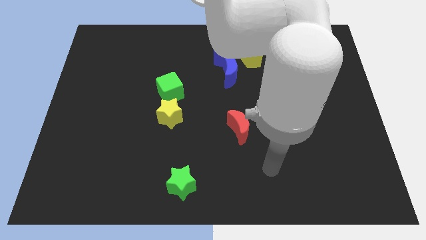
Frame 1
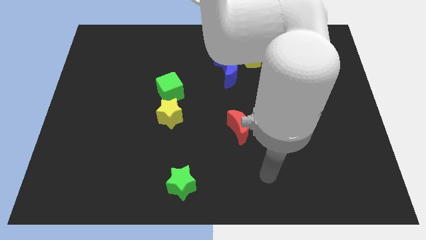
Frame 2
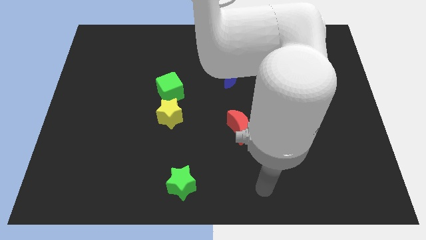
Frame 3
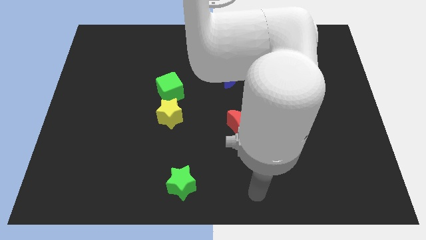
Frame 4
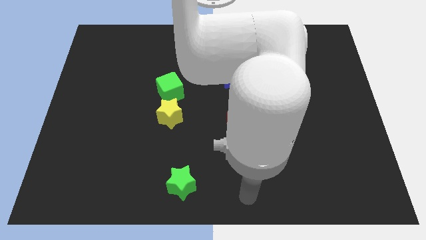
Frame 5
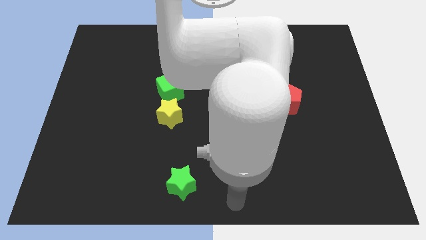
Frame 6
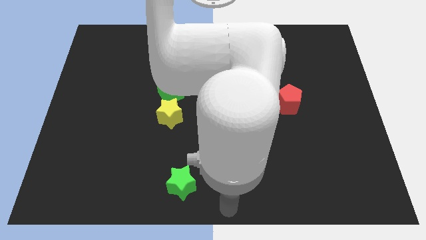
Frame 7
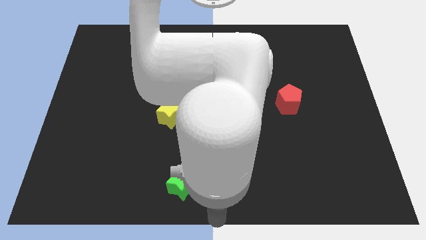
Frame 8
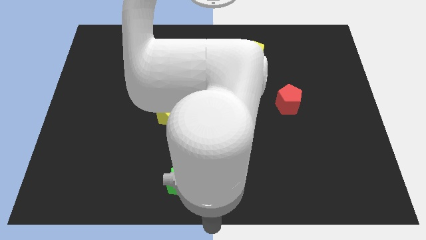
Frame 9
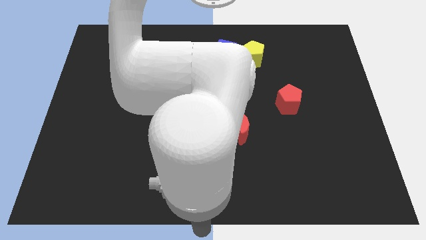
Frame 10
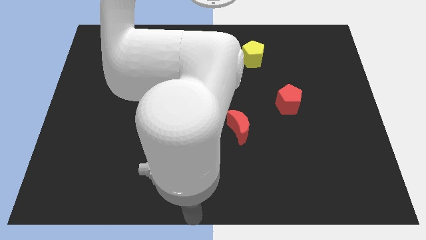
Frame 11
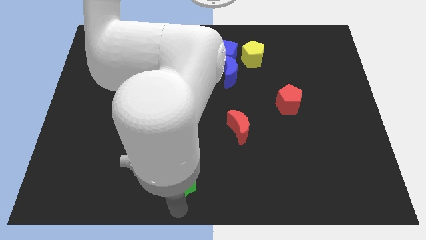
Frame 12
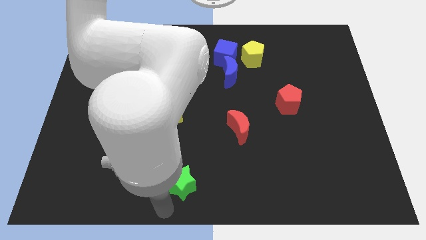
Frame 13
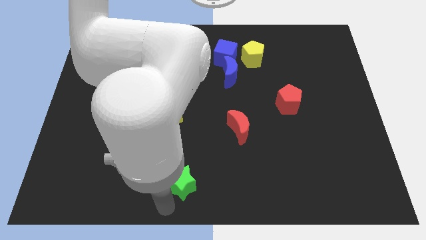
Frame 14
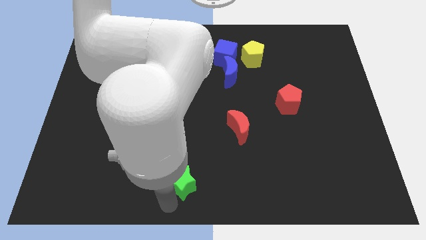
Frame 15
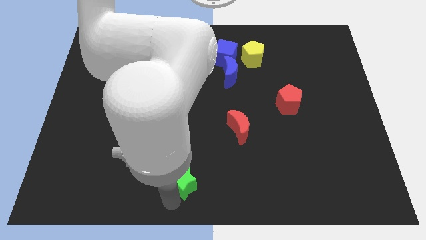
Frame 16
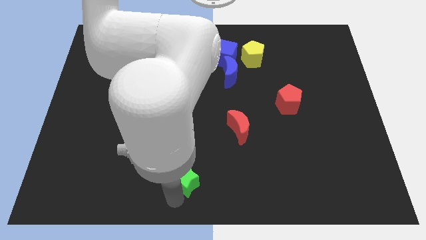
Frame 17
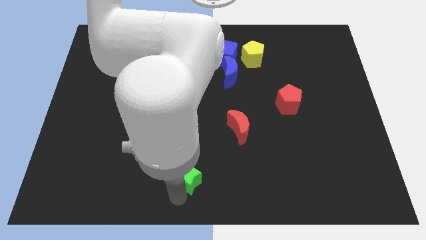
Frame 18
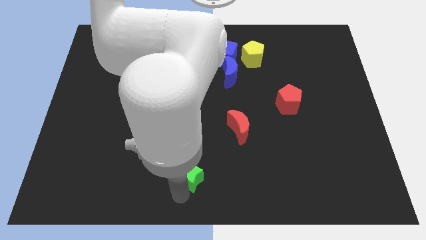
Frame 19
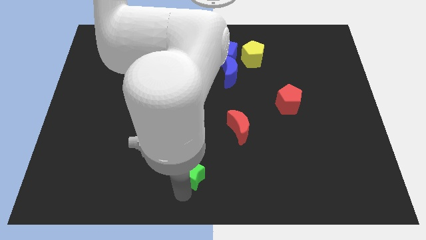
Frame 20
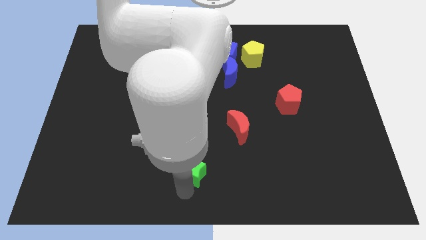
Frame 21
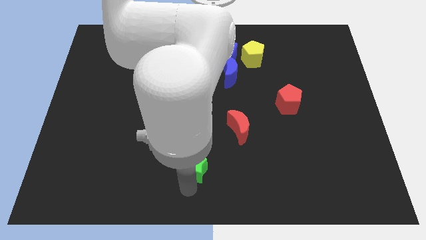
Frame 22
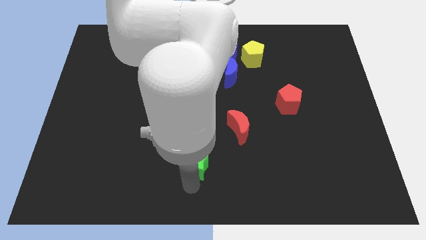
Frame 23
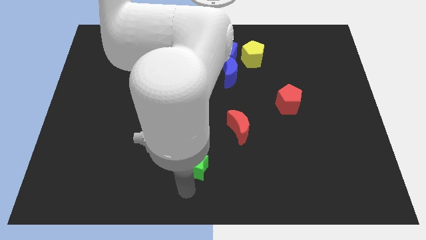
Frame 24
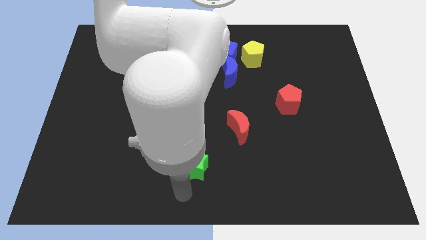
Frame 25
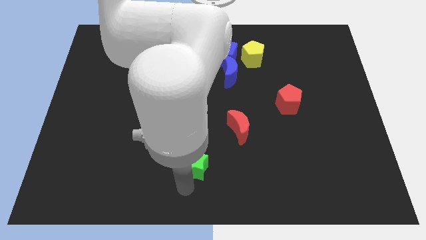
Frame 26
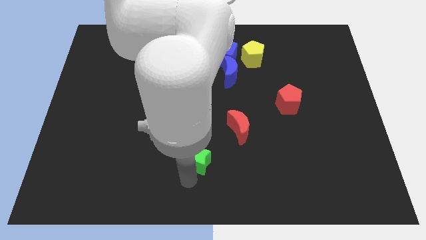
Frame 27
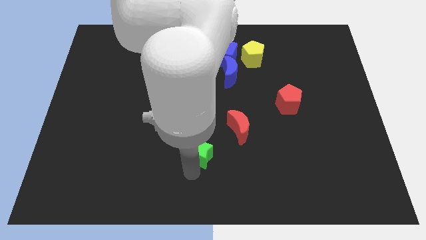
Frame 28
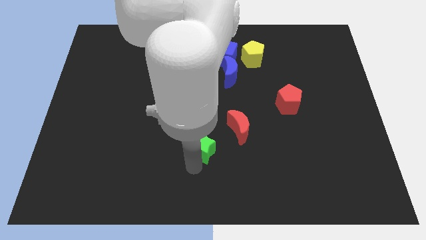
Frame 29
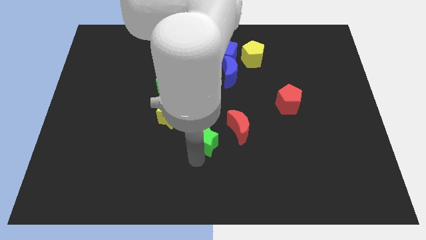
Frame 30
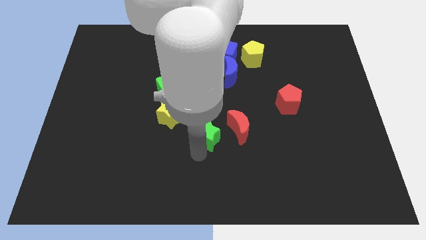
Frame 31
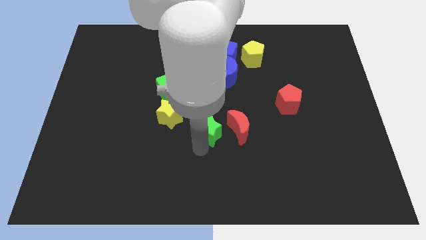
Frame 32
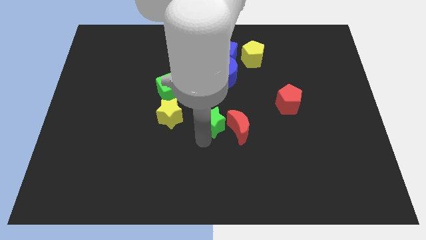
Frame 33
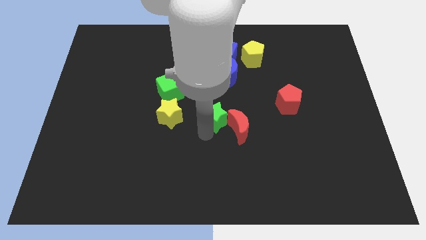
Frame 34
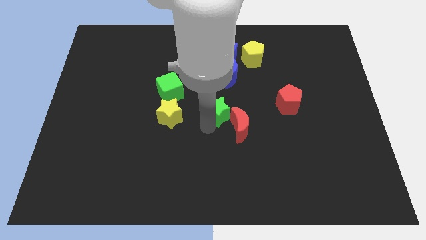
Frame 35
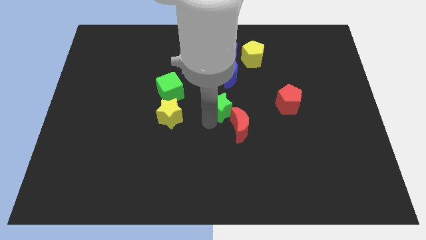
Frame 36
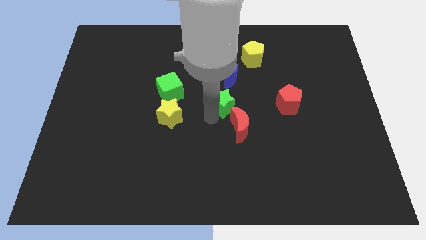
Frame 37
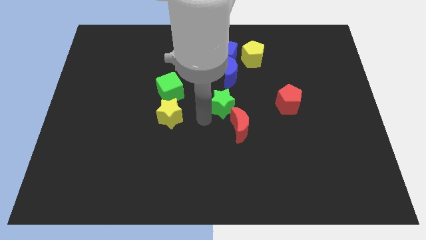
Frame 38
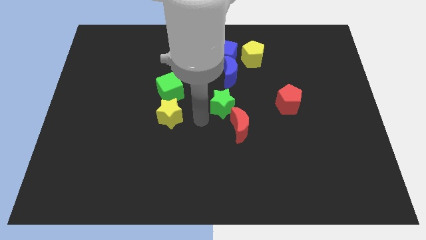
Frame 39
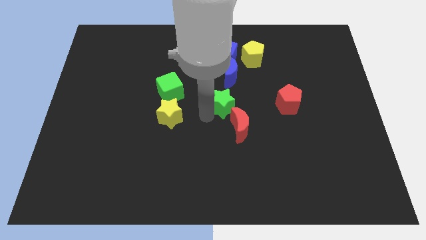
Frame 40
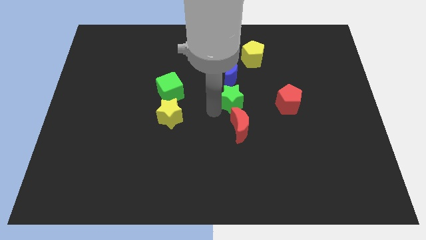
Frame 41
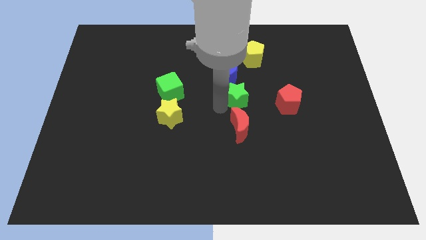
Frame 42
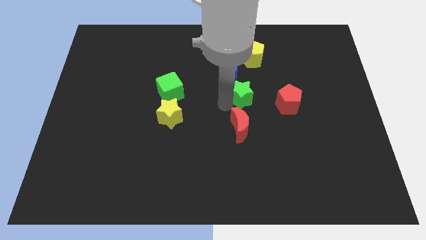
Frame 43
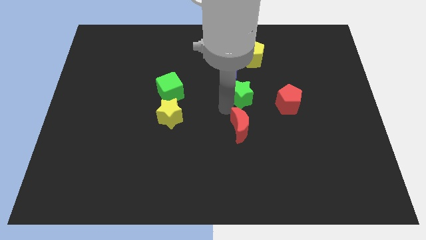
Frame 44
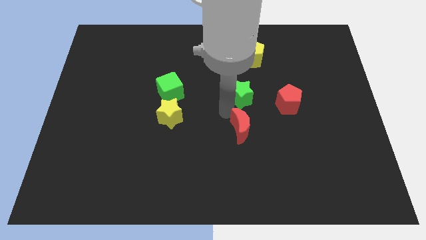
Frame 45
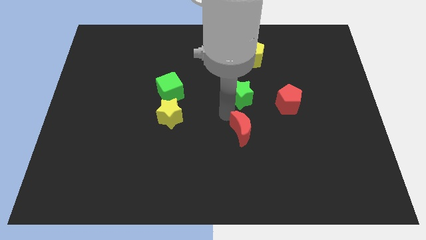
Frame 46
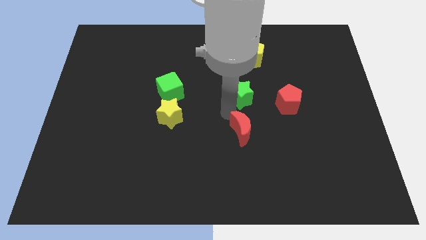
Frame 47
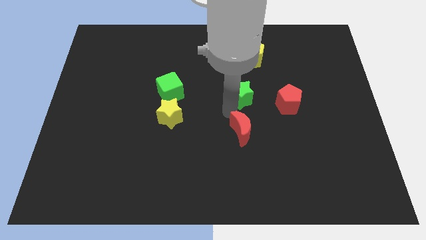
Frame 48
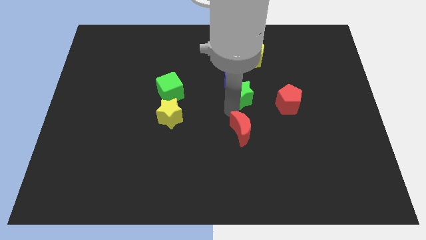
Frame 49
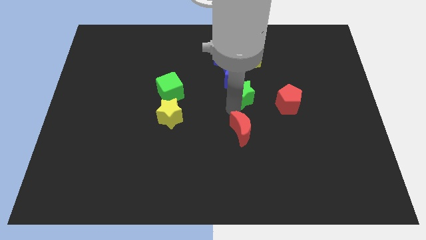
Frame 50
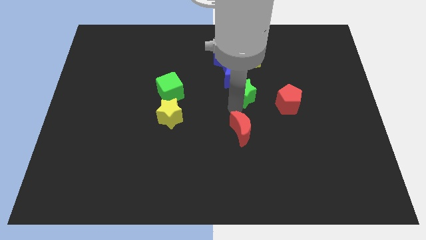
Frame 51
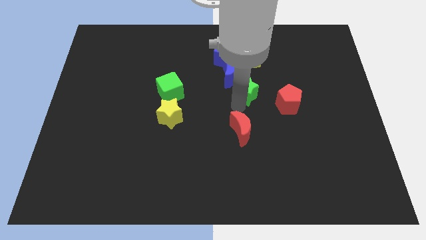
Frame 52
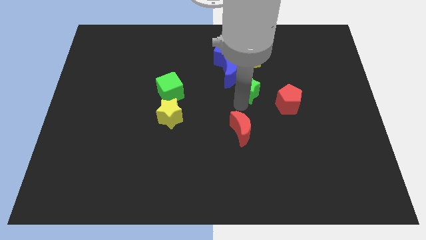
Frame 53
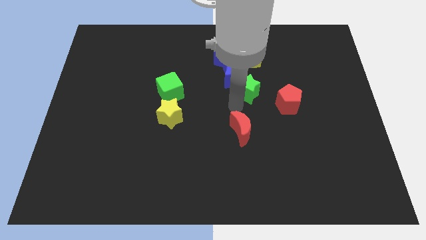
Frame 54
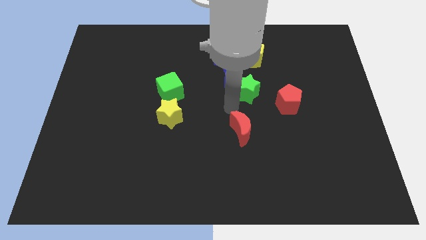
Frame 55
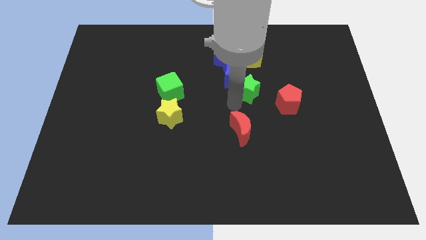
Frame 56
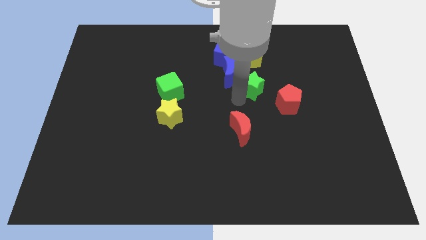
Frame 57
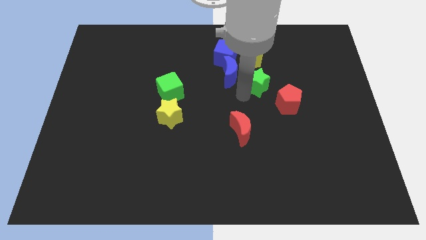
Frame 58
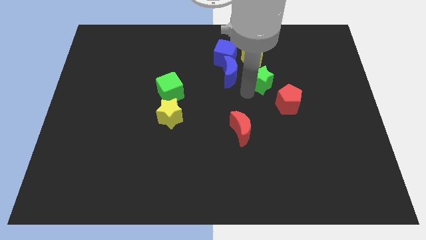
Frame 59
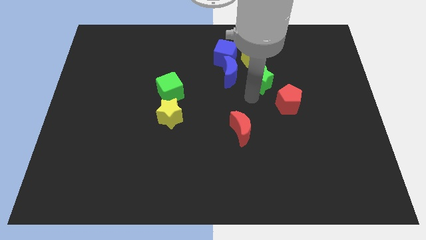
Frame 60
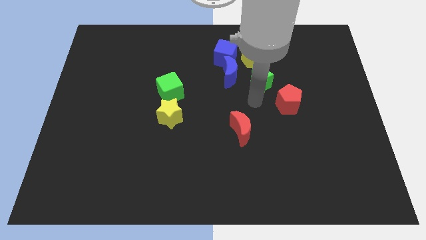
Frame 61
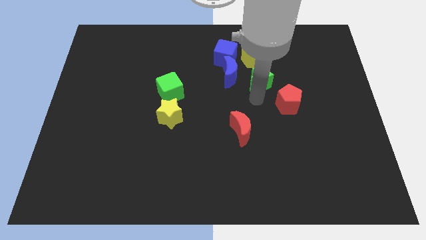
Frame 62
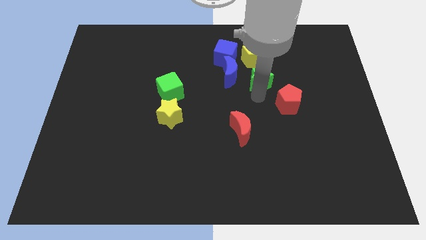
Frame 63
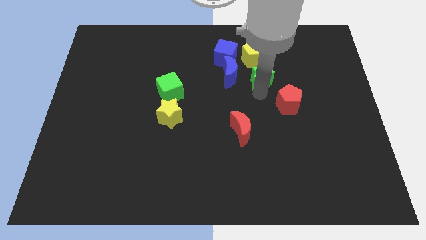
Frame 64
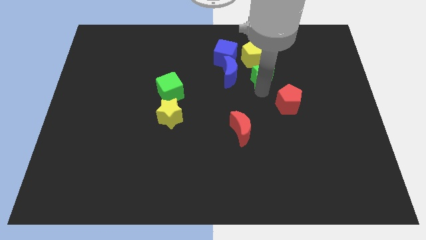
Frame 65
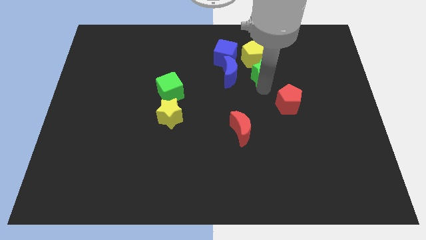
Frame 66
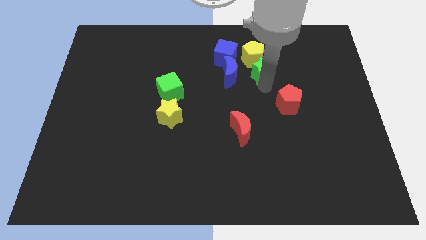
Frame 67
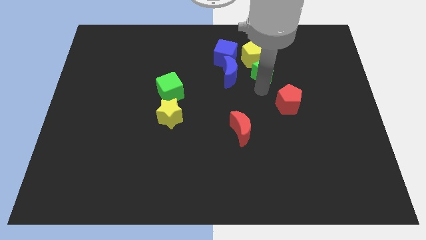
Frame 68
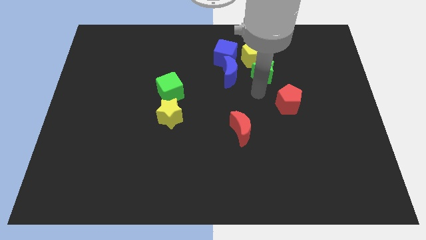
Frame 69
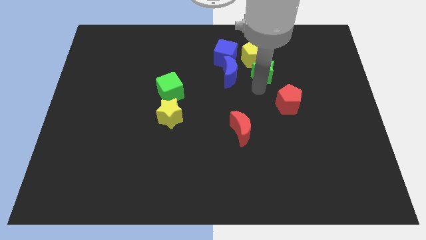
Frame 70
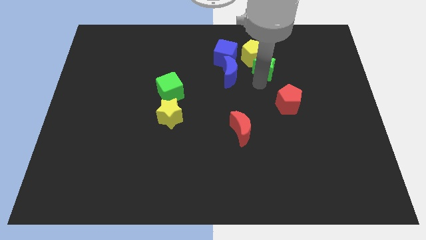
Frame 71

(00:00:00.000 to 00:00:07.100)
slide the green star to the right side of the blue cube

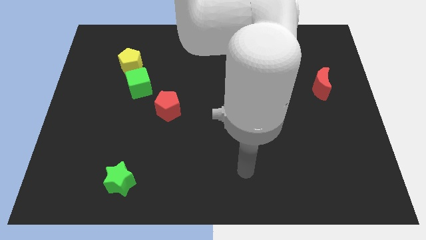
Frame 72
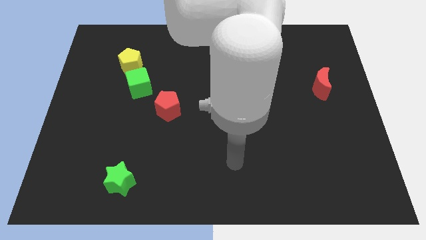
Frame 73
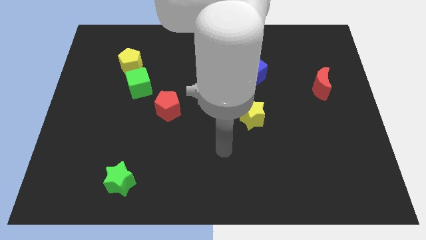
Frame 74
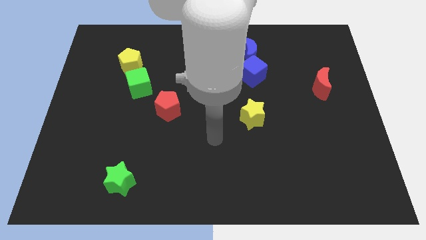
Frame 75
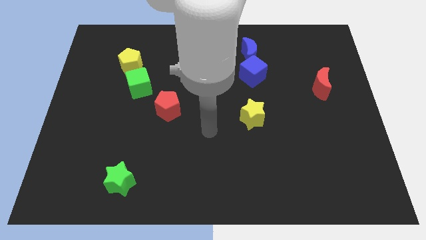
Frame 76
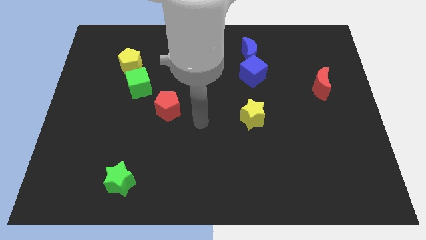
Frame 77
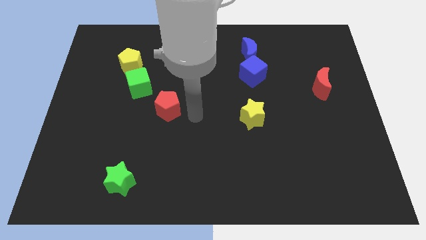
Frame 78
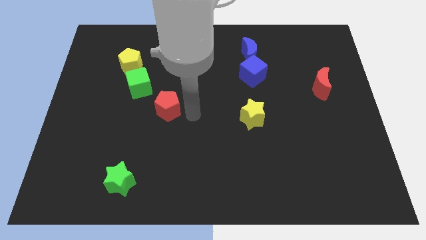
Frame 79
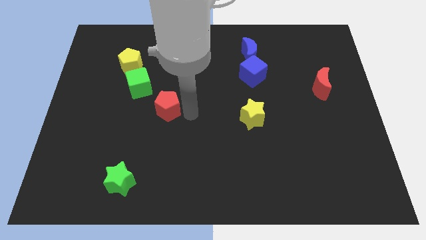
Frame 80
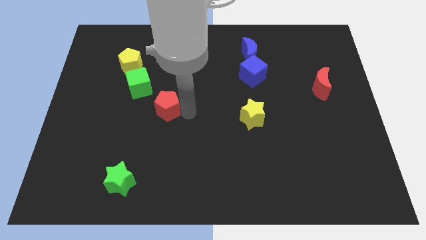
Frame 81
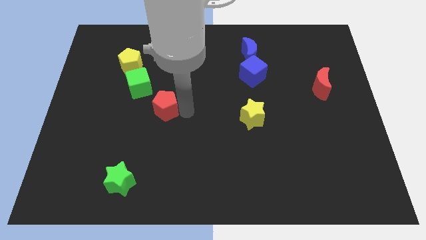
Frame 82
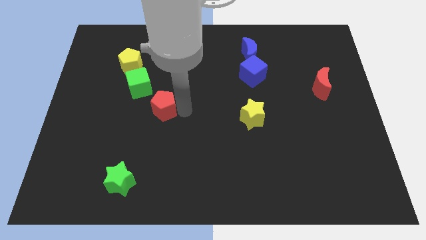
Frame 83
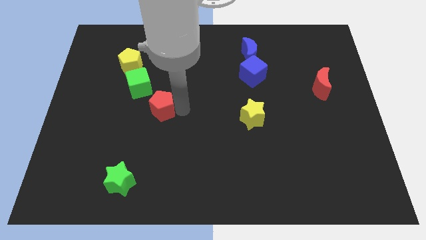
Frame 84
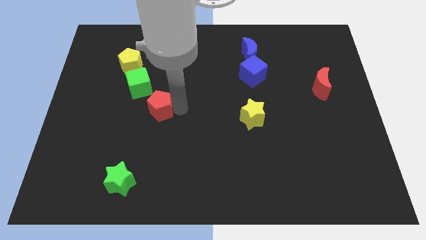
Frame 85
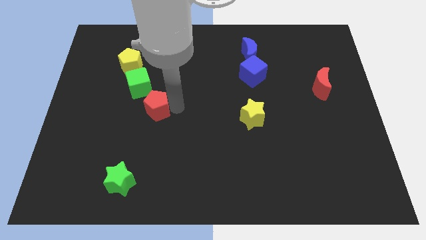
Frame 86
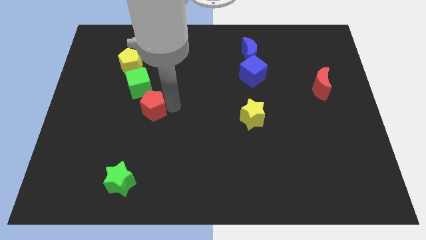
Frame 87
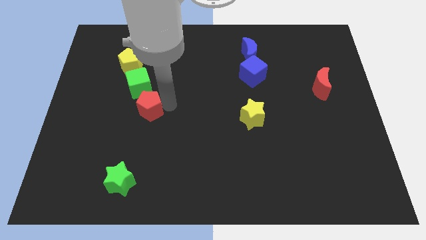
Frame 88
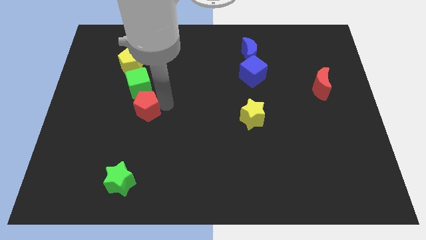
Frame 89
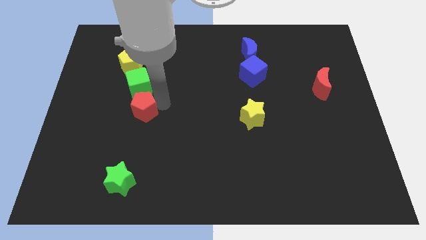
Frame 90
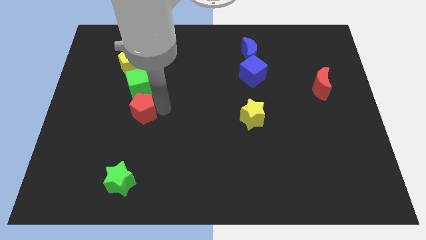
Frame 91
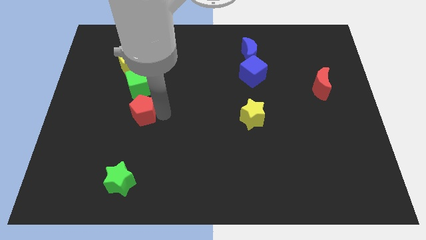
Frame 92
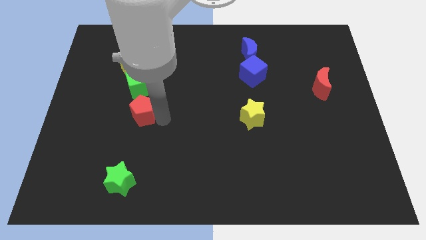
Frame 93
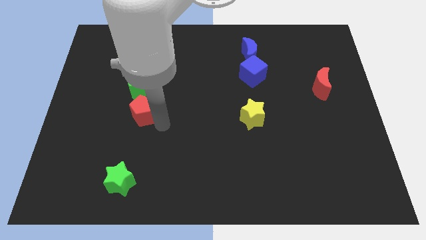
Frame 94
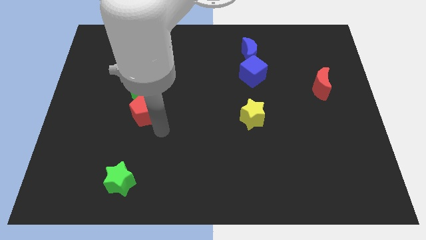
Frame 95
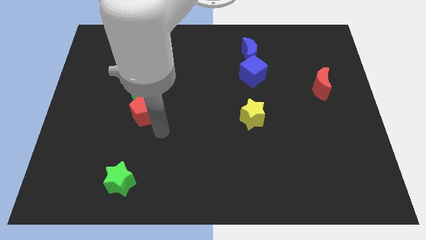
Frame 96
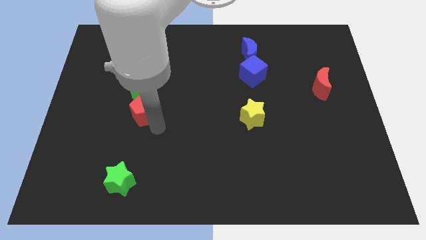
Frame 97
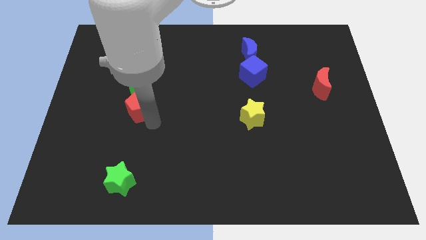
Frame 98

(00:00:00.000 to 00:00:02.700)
push the red pentagon to the bottom side of the yellow pentagon
